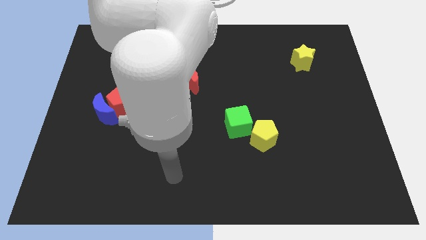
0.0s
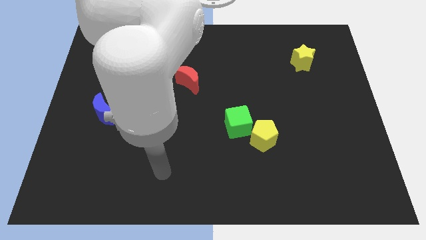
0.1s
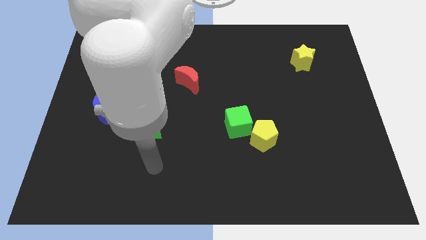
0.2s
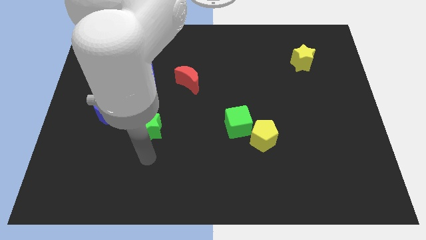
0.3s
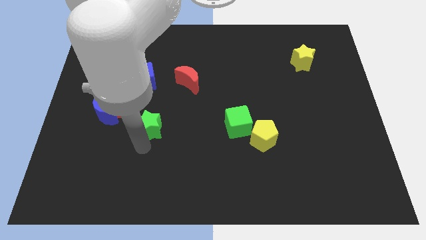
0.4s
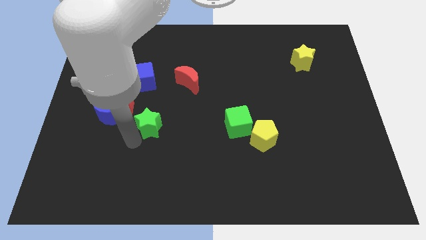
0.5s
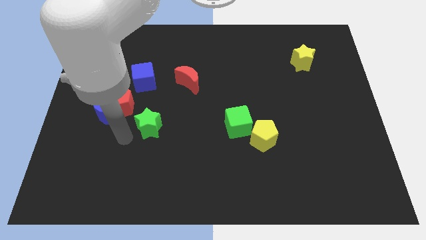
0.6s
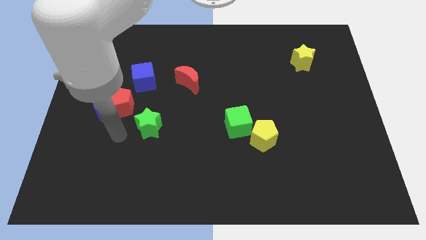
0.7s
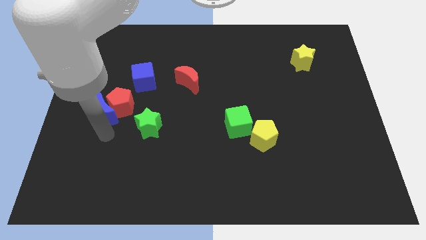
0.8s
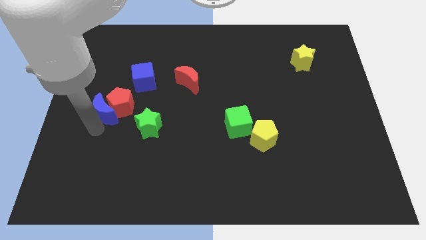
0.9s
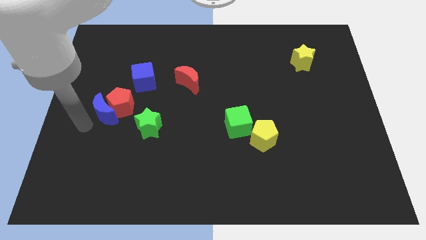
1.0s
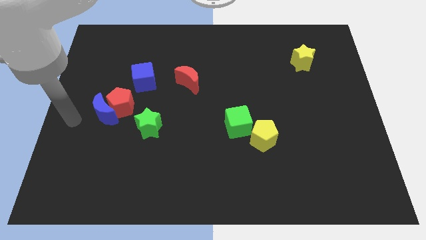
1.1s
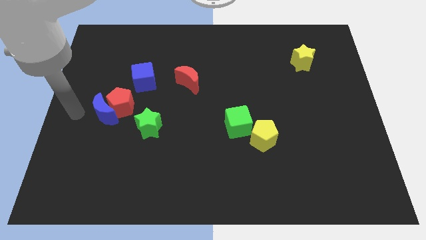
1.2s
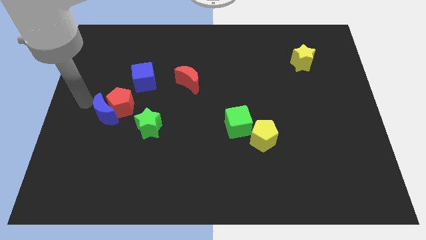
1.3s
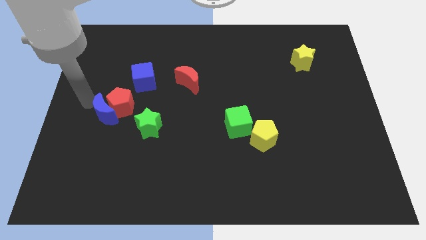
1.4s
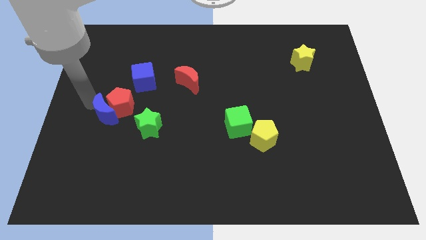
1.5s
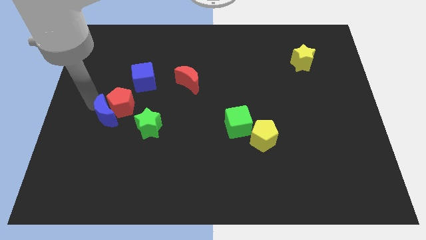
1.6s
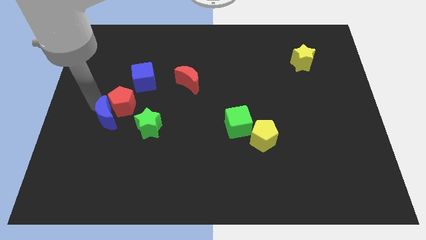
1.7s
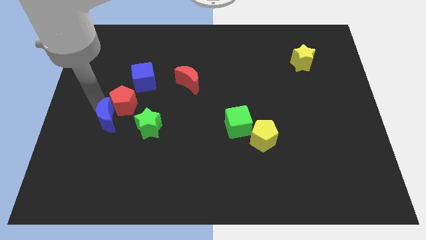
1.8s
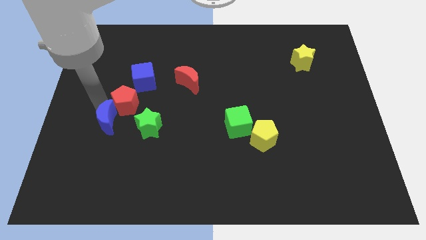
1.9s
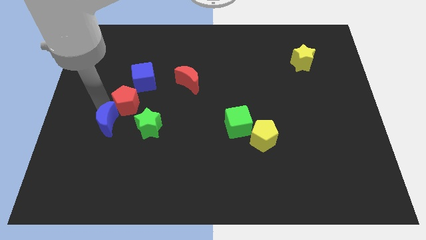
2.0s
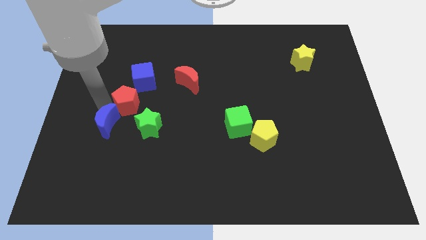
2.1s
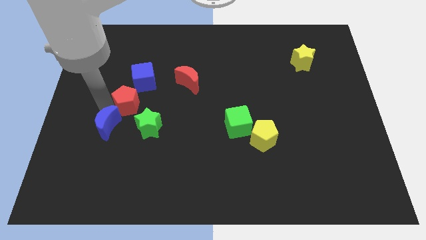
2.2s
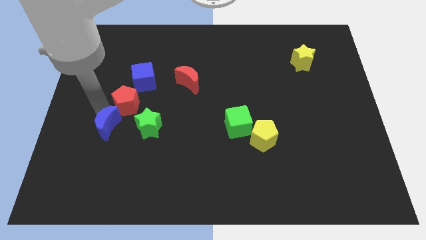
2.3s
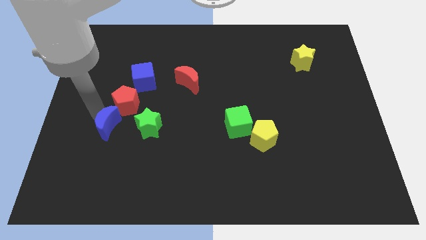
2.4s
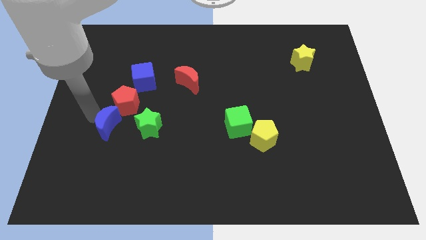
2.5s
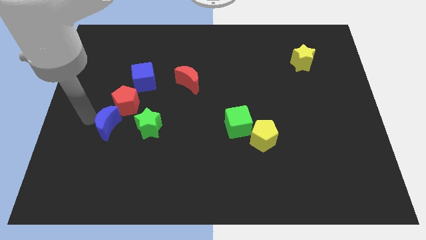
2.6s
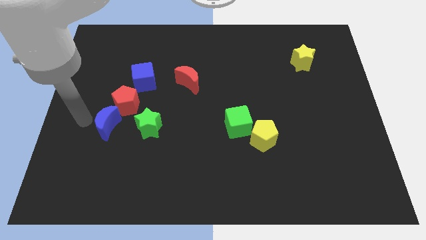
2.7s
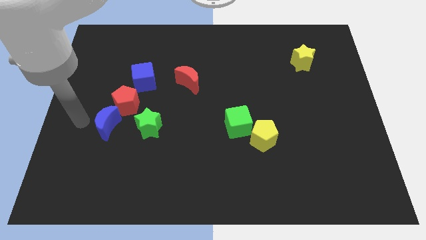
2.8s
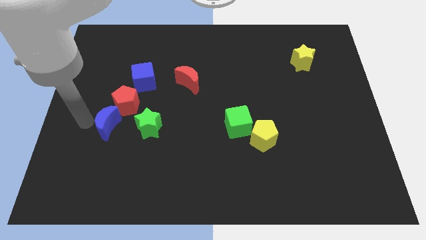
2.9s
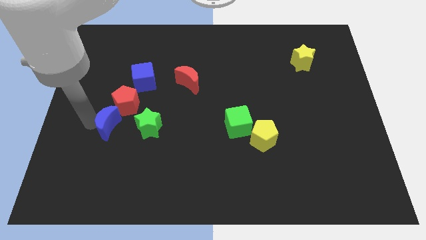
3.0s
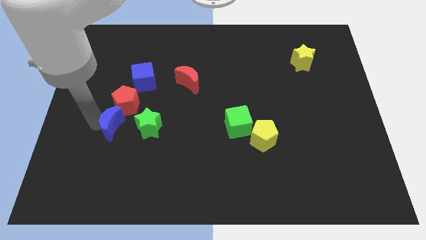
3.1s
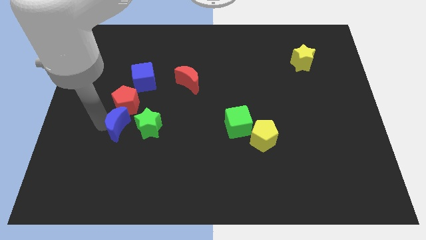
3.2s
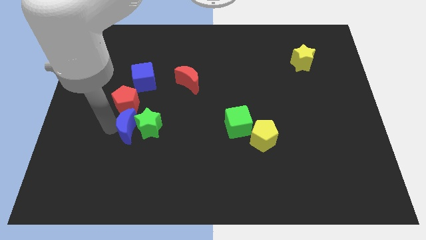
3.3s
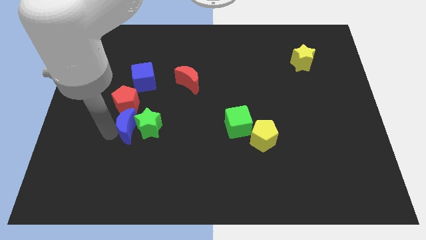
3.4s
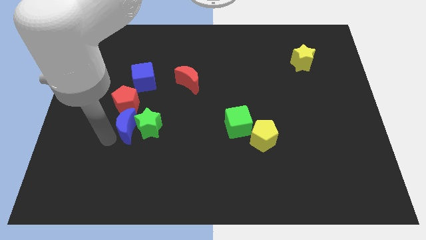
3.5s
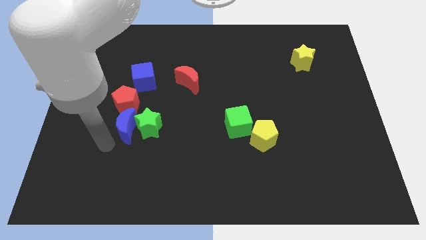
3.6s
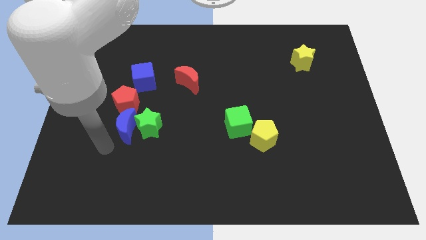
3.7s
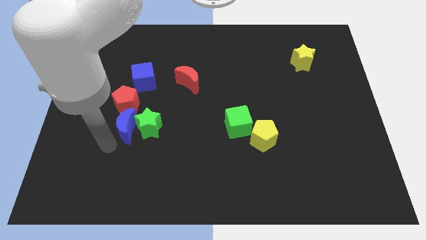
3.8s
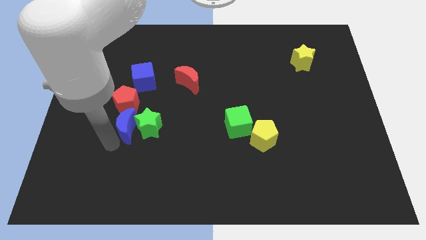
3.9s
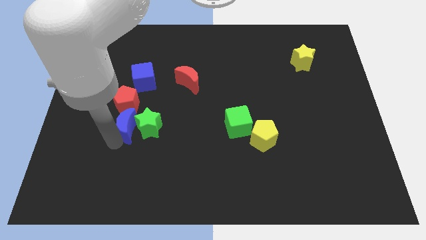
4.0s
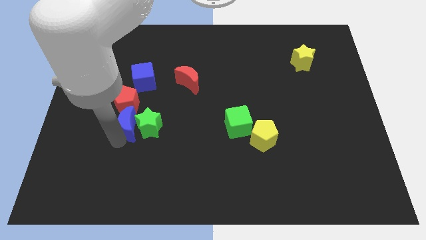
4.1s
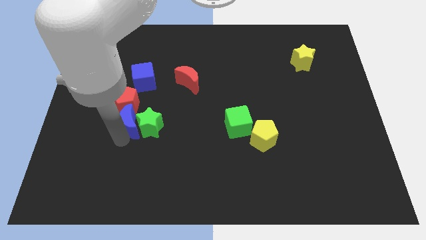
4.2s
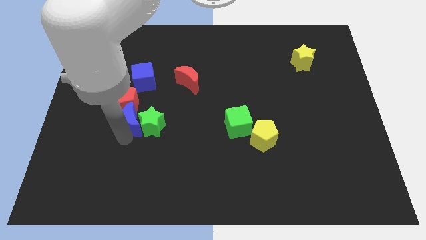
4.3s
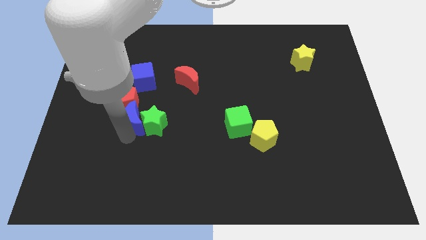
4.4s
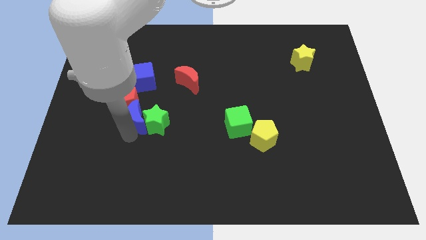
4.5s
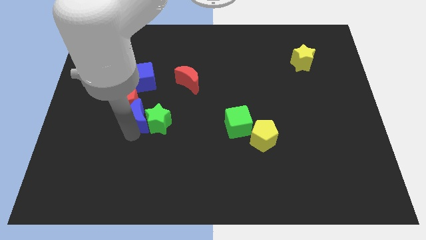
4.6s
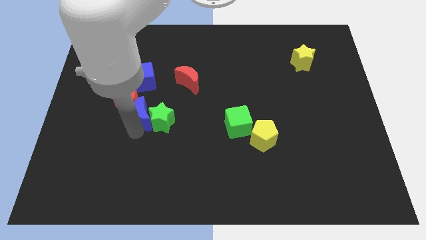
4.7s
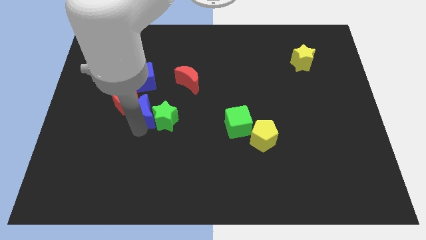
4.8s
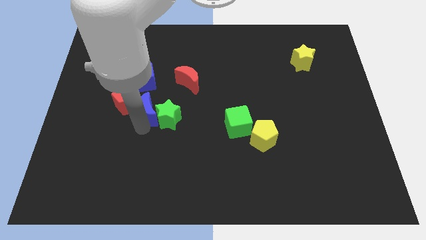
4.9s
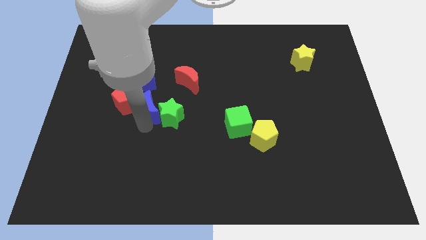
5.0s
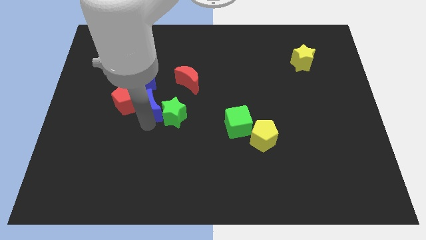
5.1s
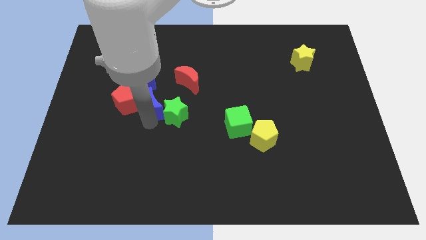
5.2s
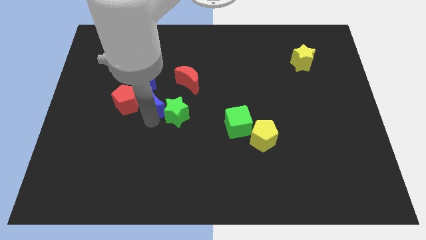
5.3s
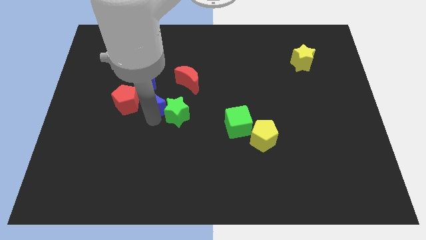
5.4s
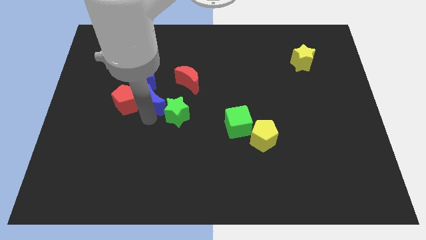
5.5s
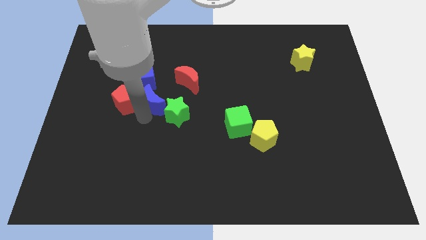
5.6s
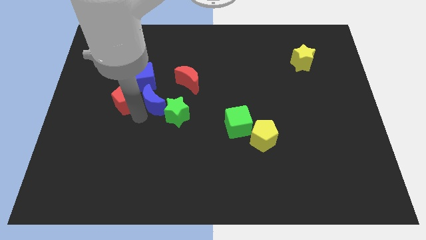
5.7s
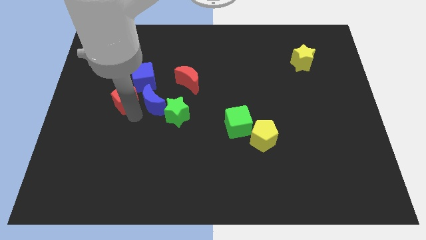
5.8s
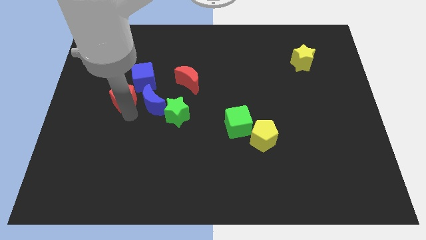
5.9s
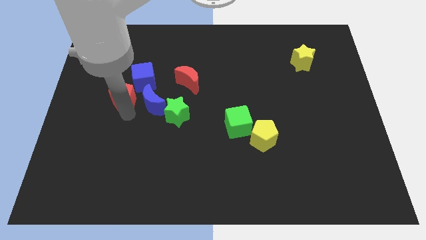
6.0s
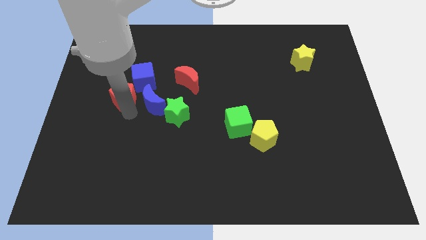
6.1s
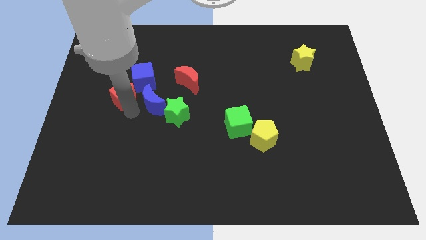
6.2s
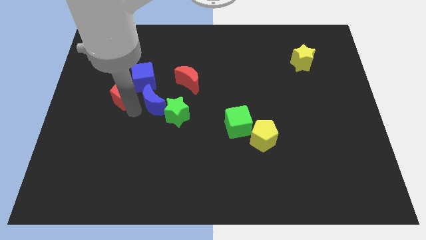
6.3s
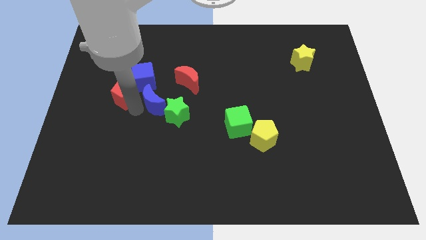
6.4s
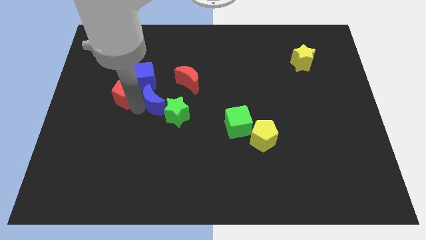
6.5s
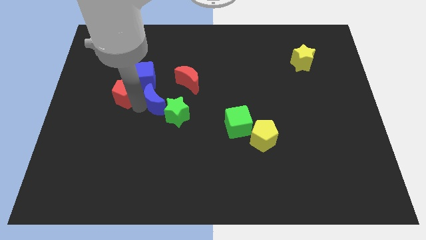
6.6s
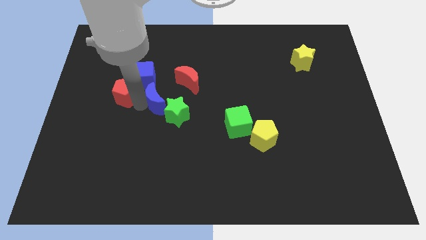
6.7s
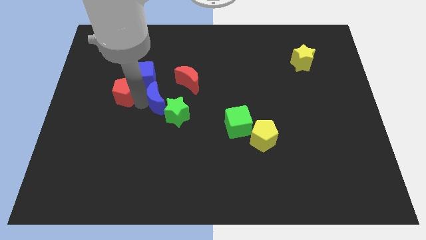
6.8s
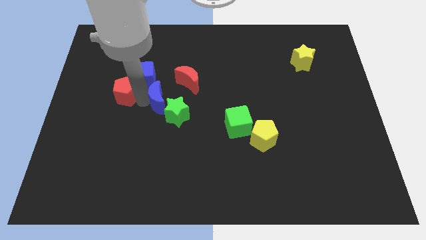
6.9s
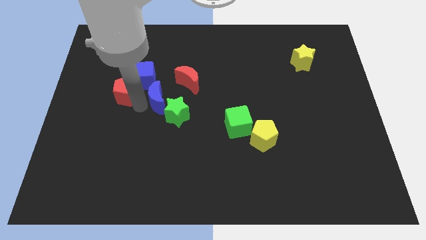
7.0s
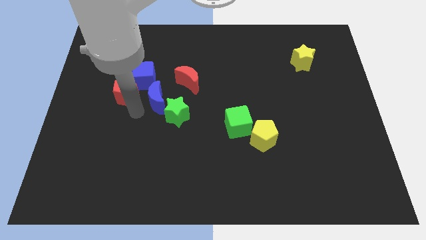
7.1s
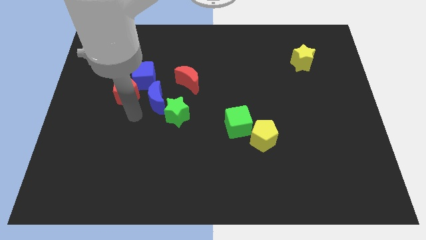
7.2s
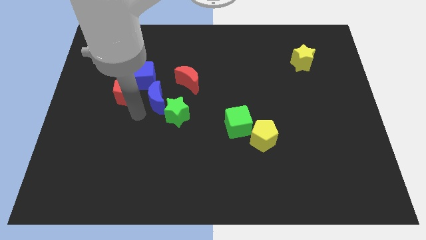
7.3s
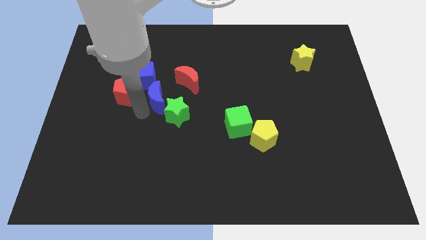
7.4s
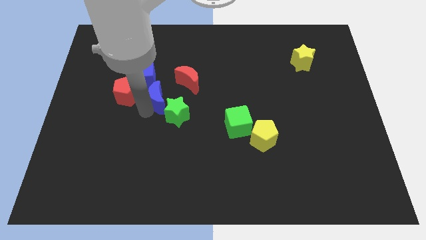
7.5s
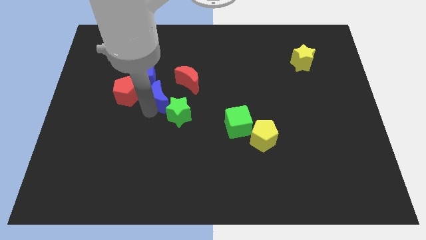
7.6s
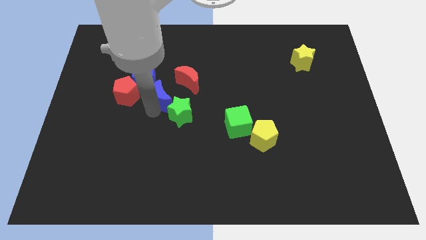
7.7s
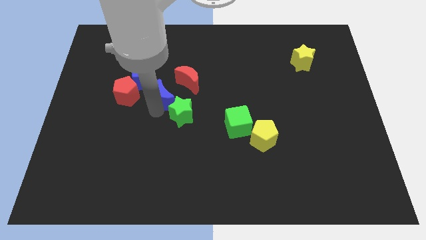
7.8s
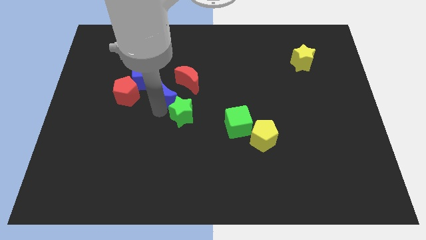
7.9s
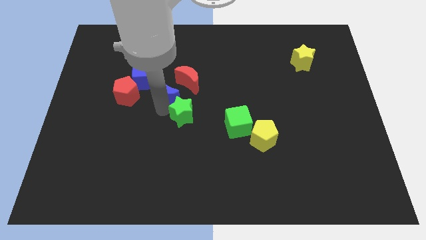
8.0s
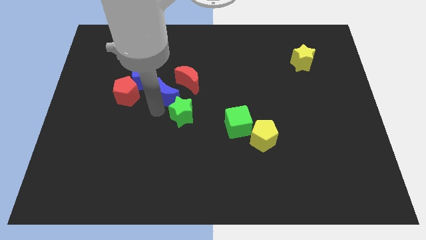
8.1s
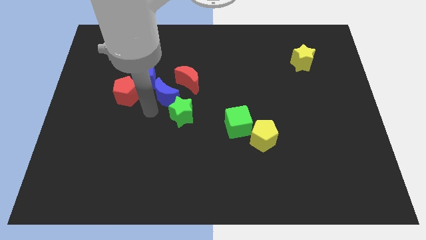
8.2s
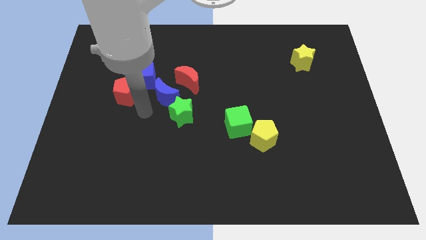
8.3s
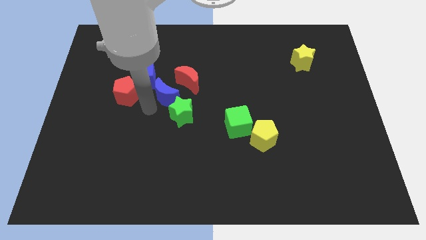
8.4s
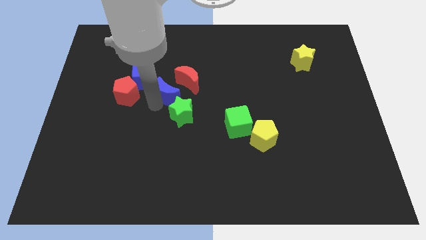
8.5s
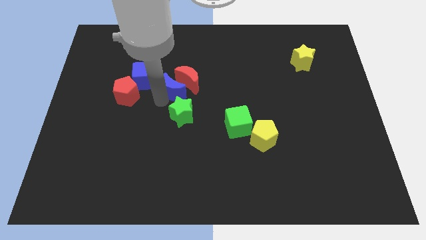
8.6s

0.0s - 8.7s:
push the blue moon close to the red moon
